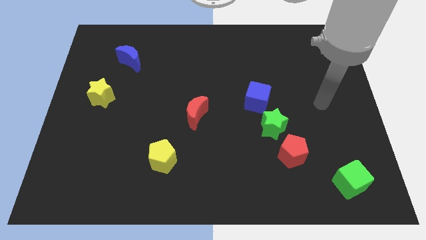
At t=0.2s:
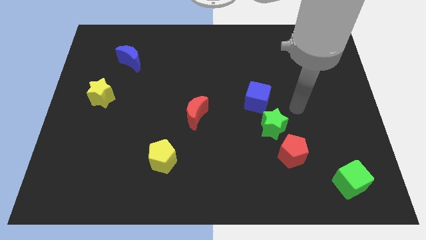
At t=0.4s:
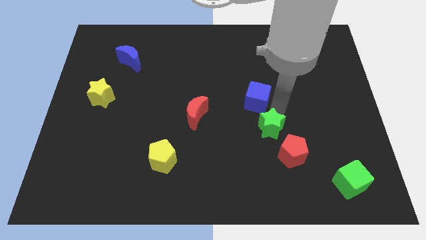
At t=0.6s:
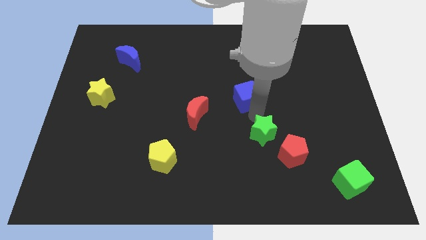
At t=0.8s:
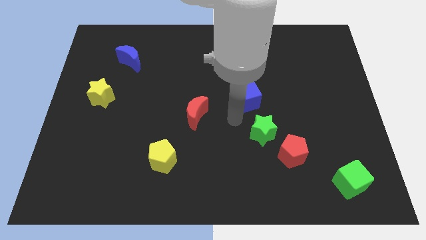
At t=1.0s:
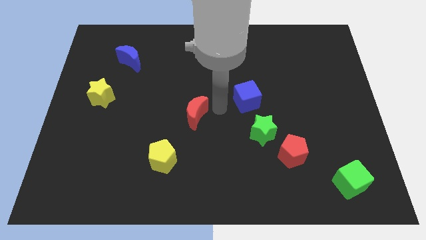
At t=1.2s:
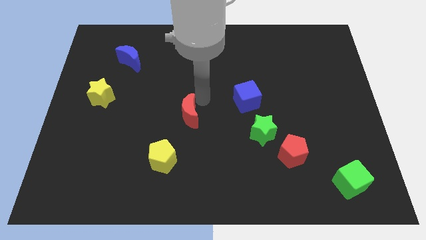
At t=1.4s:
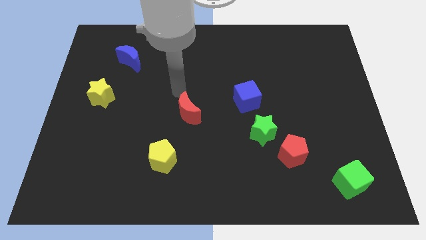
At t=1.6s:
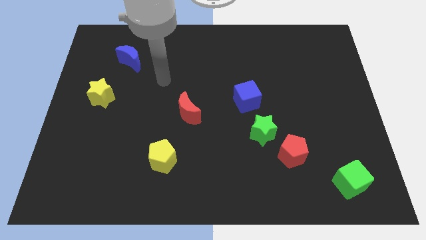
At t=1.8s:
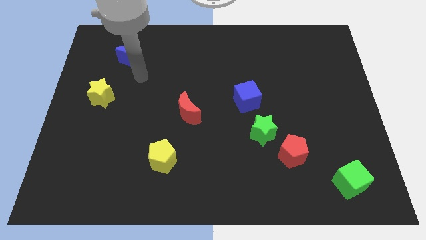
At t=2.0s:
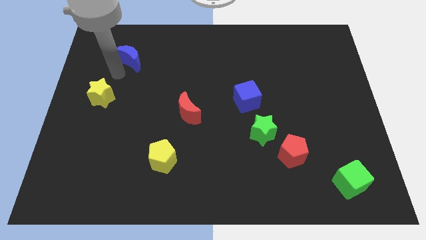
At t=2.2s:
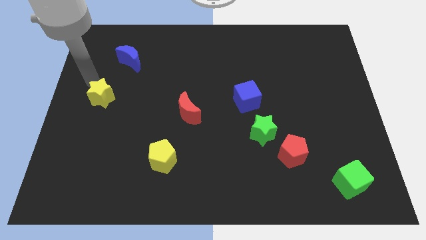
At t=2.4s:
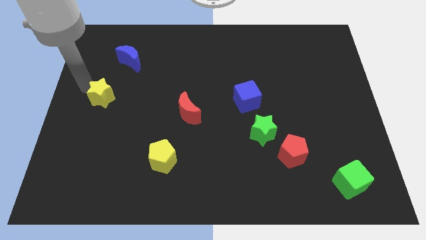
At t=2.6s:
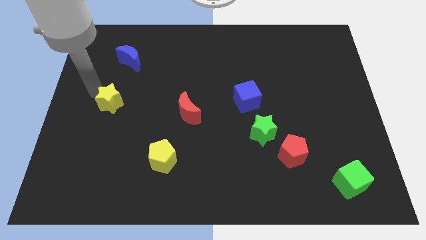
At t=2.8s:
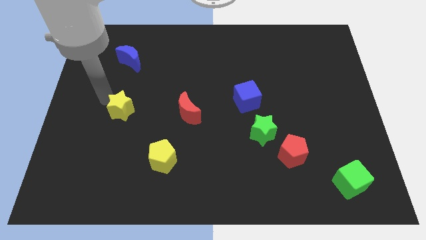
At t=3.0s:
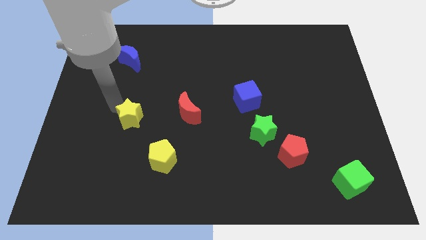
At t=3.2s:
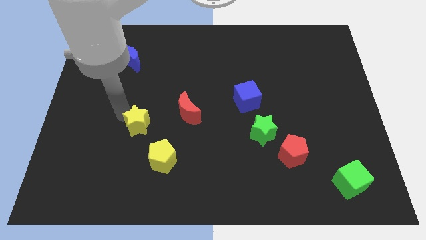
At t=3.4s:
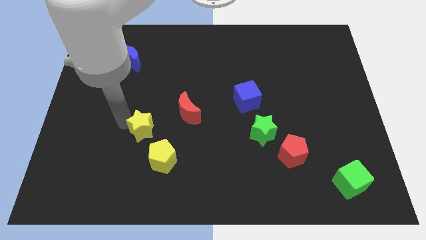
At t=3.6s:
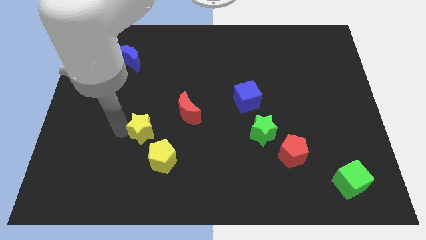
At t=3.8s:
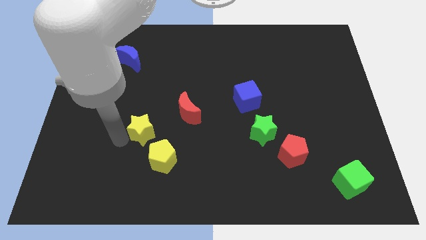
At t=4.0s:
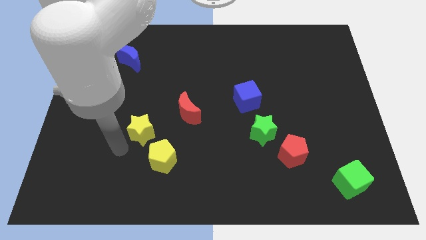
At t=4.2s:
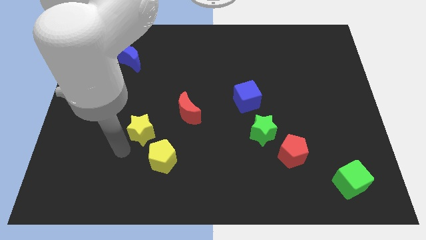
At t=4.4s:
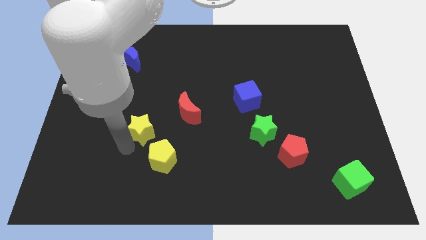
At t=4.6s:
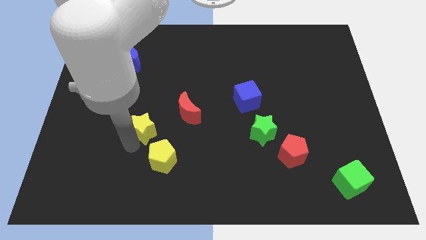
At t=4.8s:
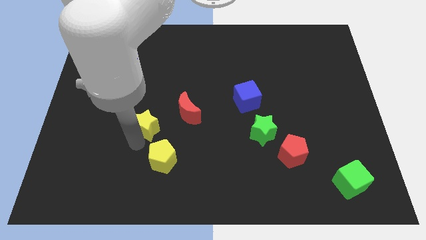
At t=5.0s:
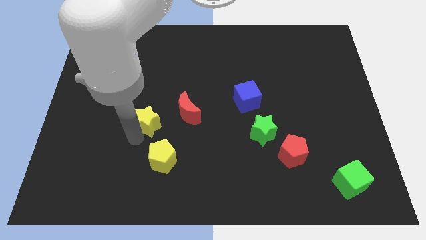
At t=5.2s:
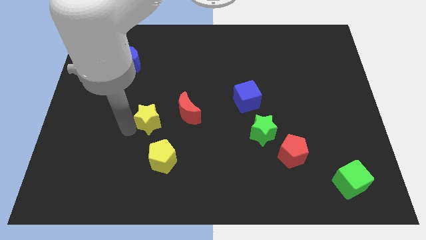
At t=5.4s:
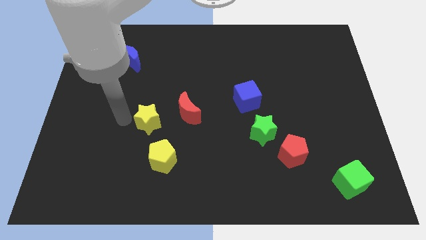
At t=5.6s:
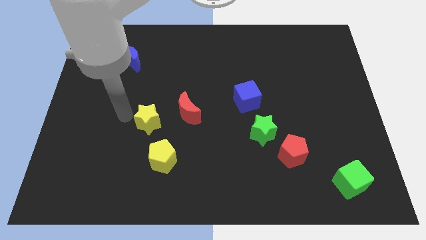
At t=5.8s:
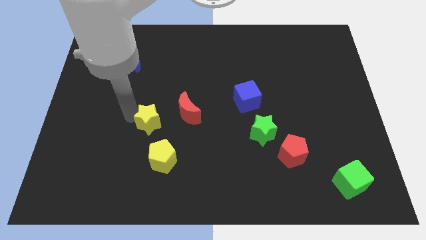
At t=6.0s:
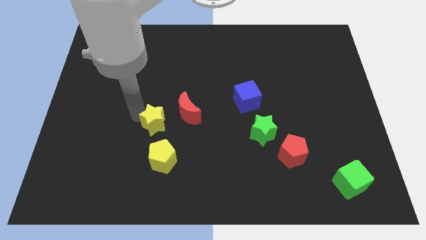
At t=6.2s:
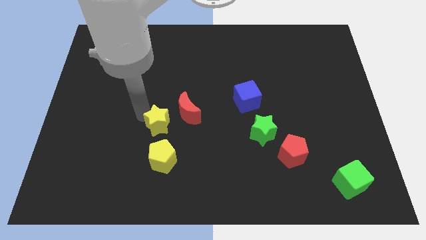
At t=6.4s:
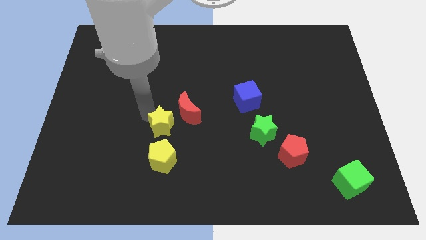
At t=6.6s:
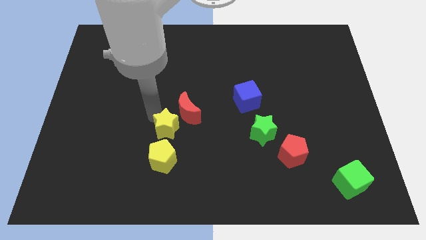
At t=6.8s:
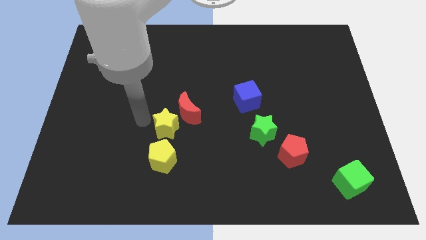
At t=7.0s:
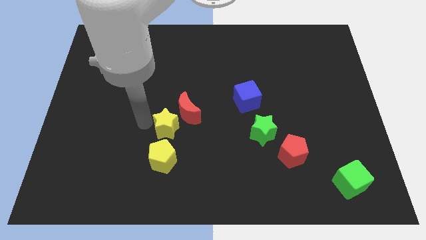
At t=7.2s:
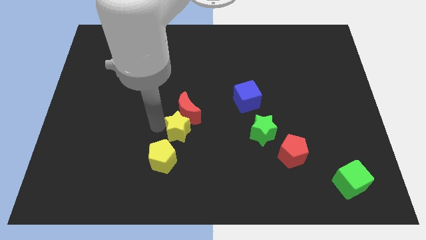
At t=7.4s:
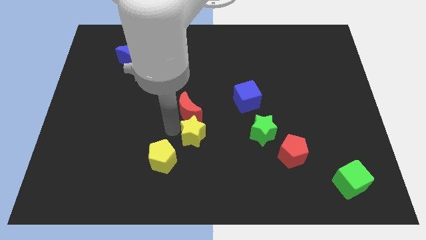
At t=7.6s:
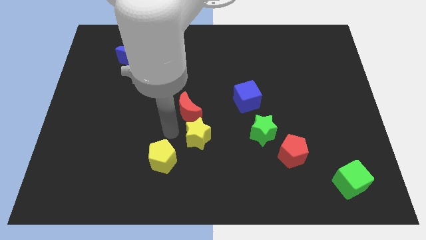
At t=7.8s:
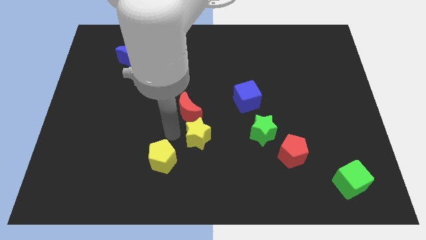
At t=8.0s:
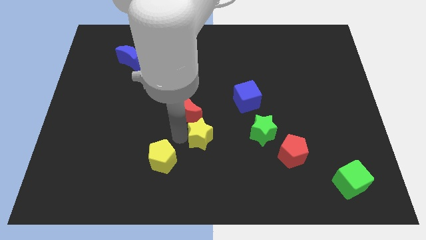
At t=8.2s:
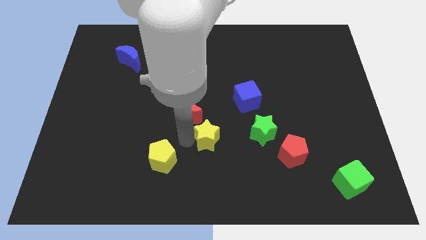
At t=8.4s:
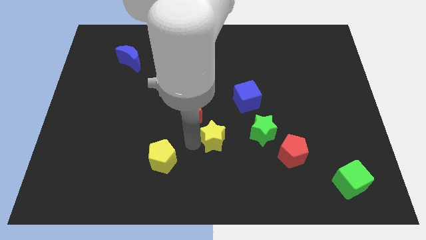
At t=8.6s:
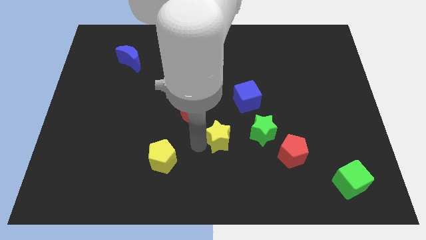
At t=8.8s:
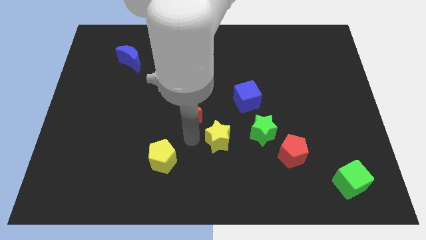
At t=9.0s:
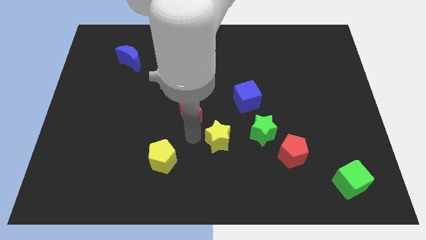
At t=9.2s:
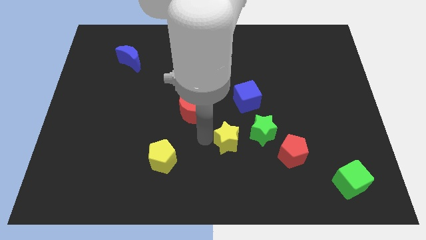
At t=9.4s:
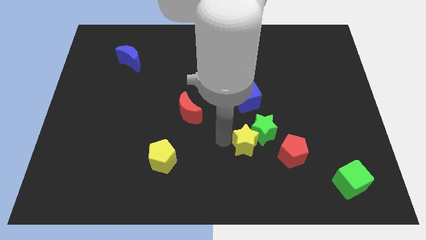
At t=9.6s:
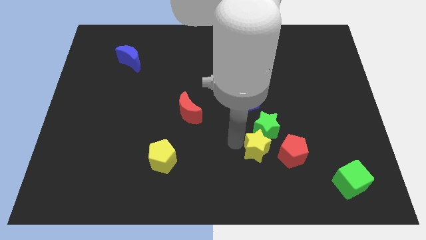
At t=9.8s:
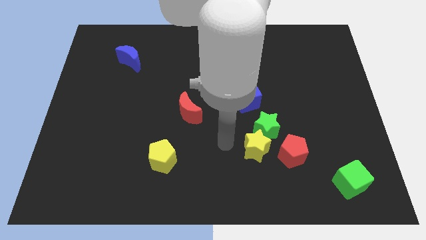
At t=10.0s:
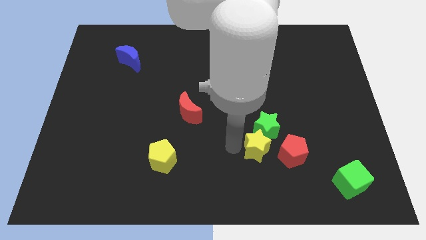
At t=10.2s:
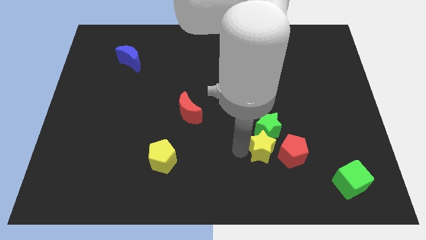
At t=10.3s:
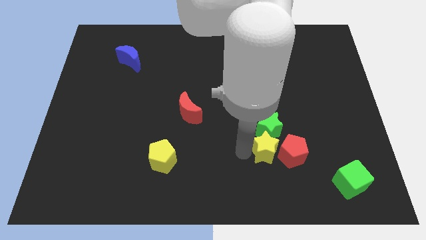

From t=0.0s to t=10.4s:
put the yellow star towards the red pentagon

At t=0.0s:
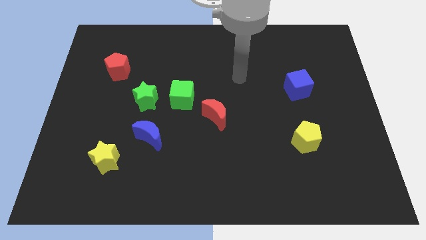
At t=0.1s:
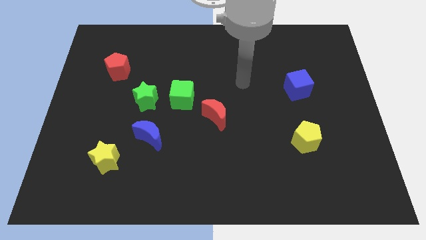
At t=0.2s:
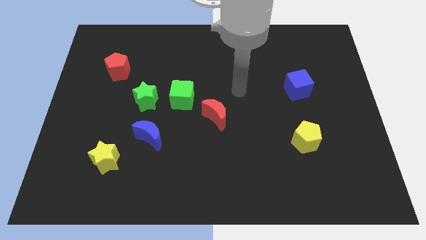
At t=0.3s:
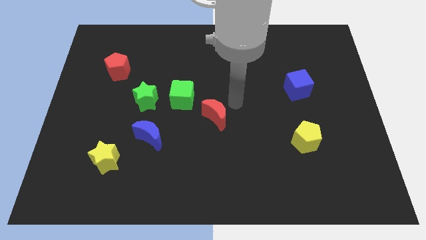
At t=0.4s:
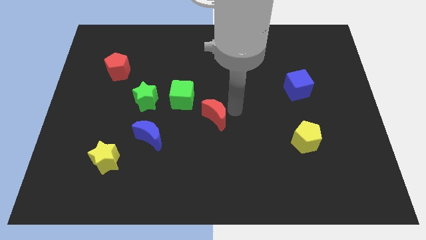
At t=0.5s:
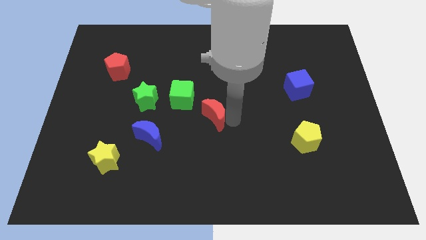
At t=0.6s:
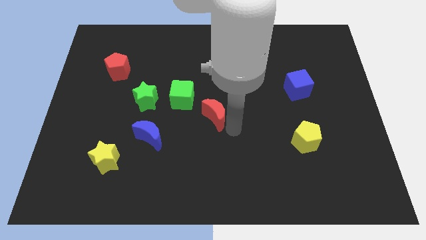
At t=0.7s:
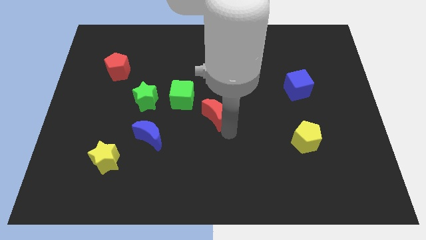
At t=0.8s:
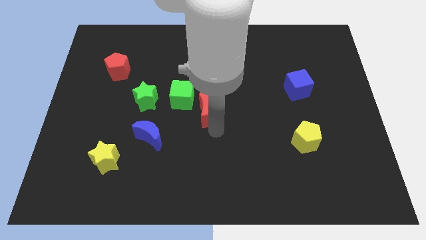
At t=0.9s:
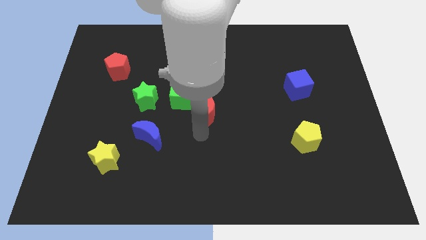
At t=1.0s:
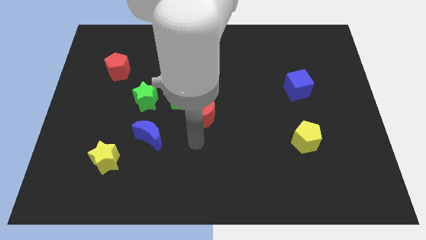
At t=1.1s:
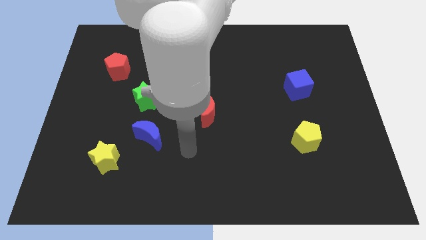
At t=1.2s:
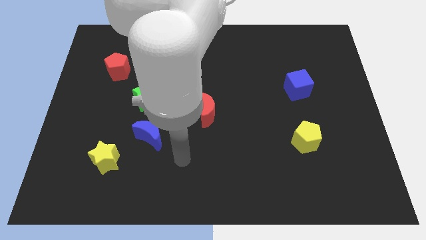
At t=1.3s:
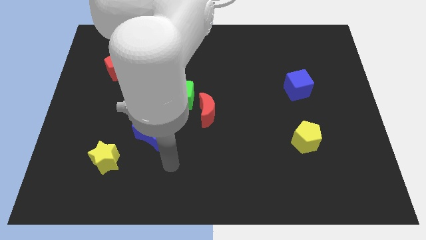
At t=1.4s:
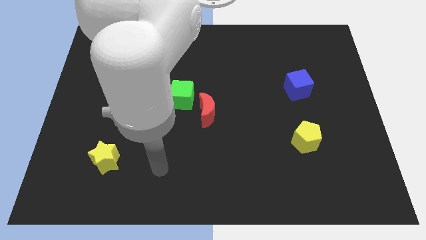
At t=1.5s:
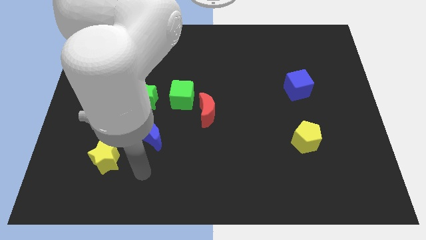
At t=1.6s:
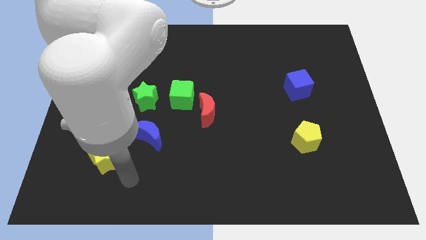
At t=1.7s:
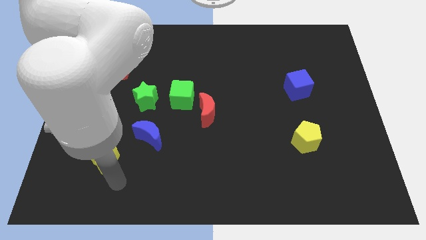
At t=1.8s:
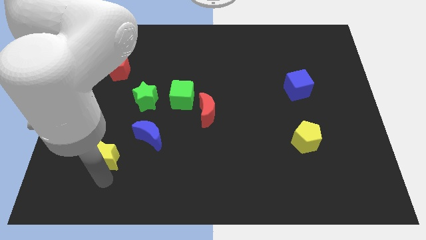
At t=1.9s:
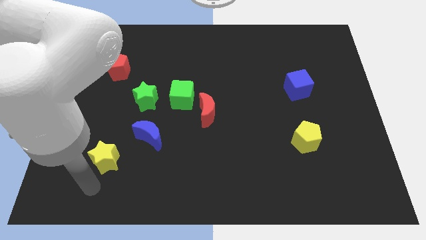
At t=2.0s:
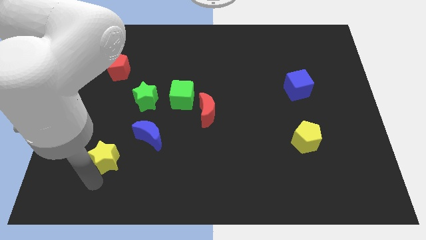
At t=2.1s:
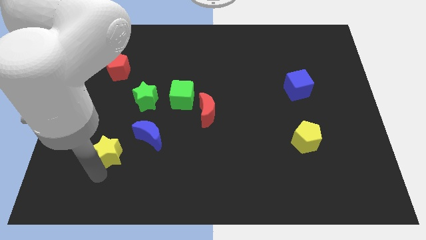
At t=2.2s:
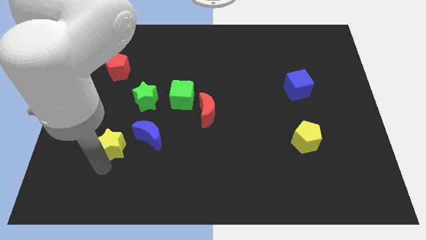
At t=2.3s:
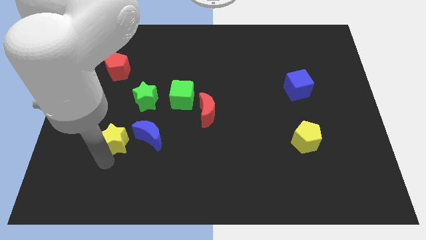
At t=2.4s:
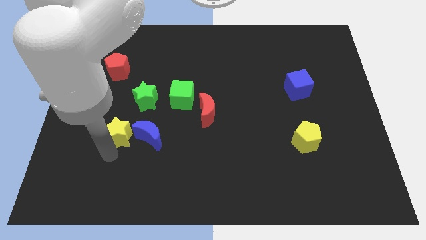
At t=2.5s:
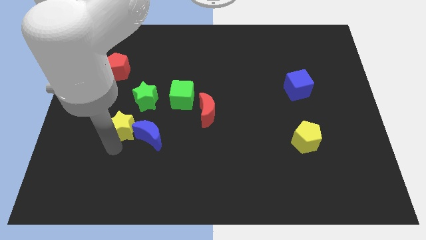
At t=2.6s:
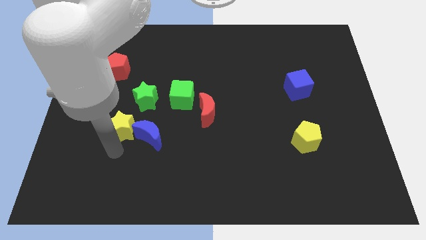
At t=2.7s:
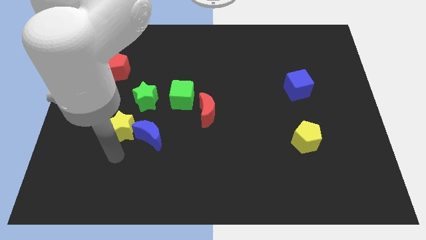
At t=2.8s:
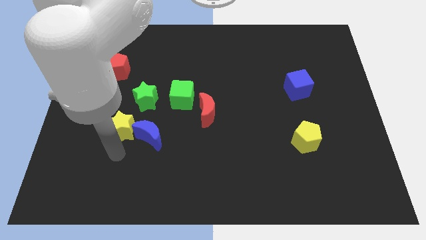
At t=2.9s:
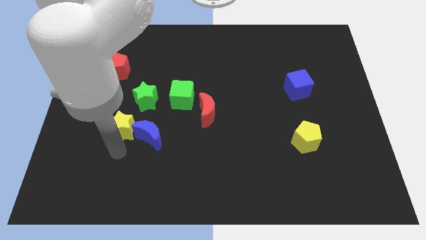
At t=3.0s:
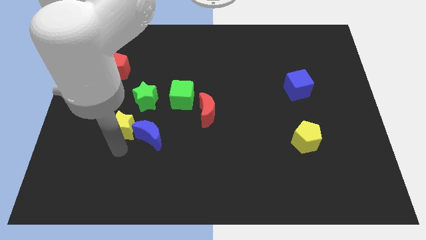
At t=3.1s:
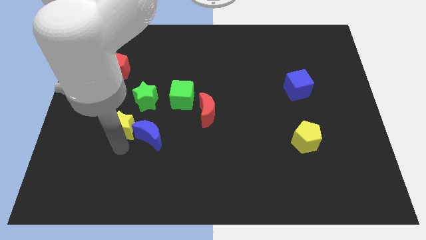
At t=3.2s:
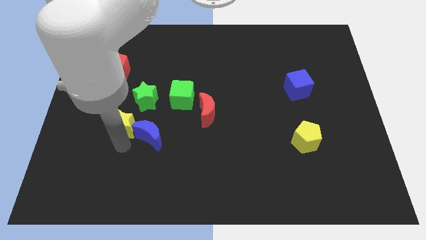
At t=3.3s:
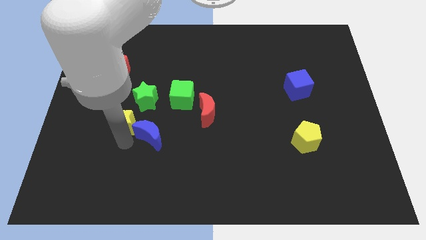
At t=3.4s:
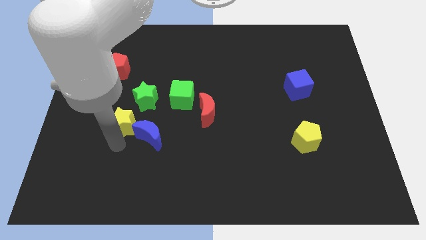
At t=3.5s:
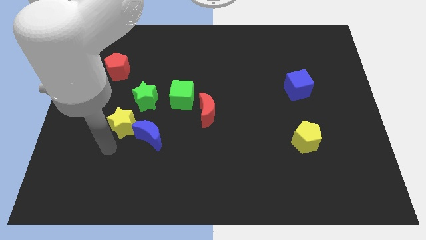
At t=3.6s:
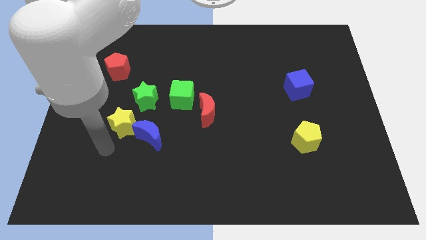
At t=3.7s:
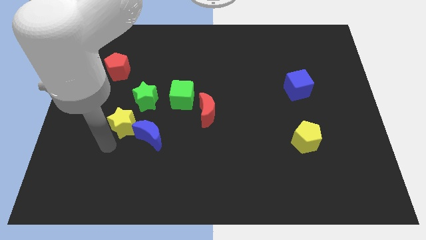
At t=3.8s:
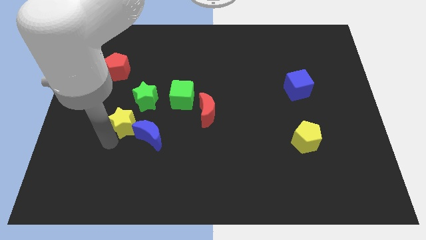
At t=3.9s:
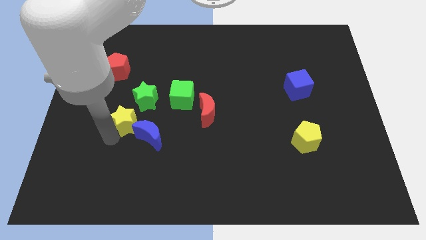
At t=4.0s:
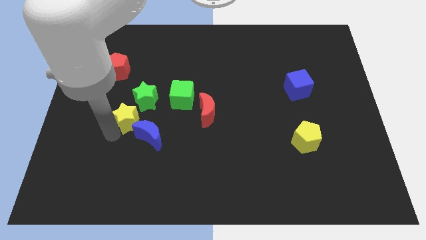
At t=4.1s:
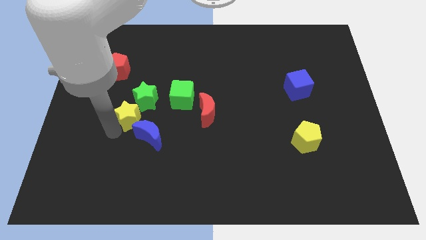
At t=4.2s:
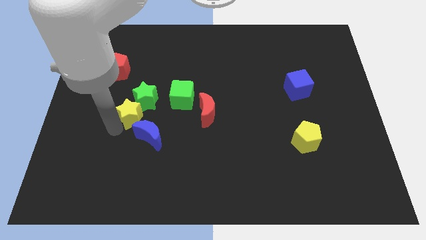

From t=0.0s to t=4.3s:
move the yellow star close to the green star
